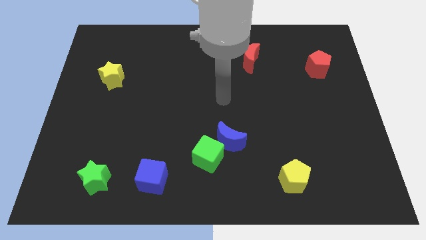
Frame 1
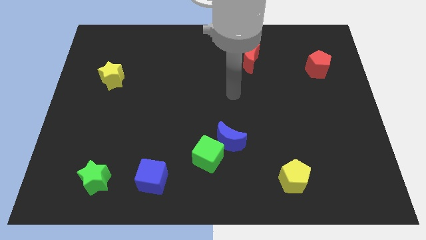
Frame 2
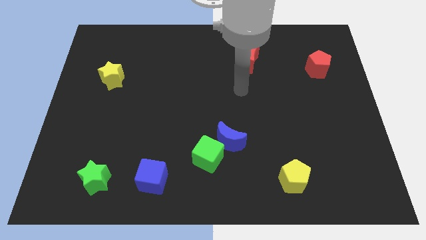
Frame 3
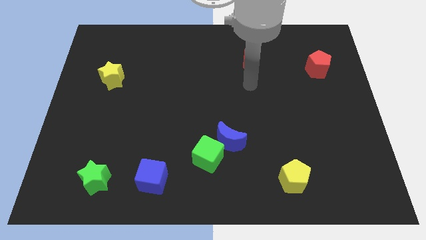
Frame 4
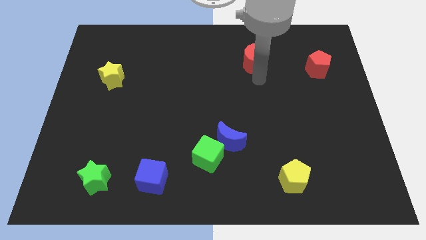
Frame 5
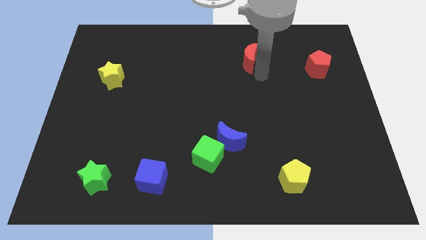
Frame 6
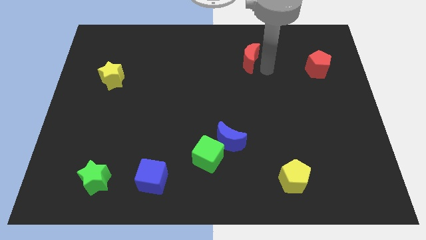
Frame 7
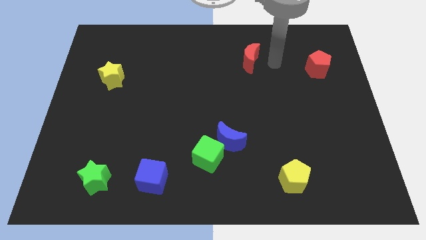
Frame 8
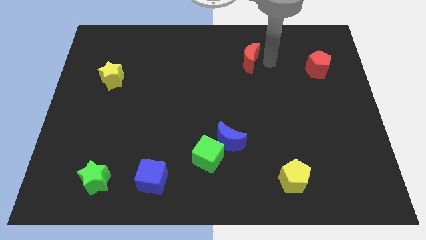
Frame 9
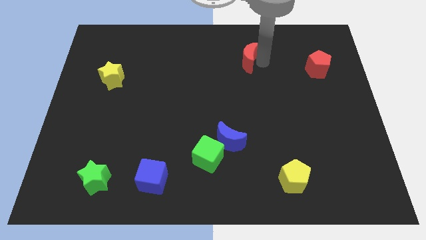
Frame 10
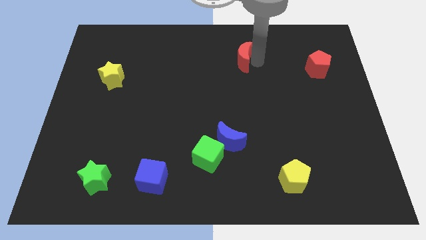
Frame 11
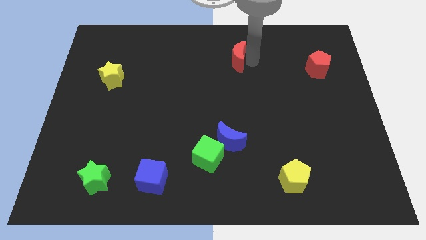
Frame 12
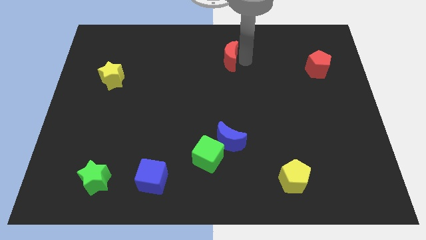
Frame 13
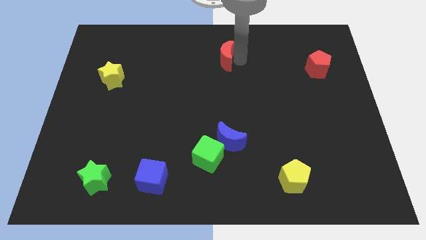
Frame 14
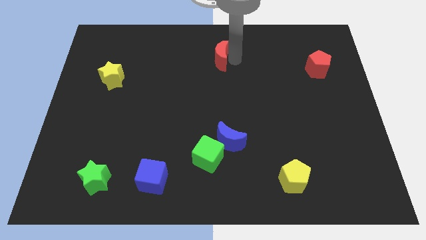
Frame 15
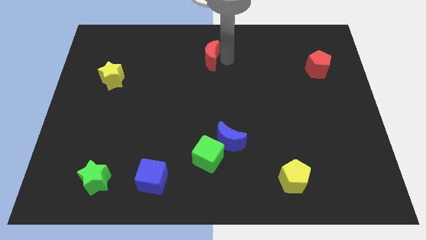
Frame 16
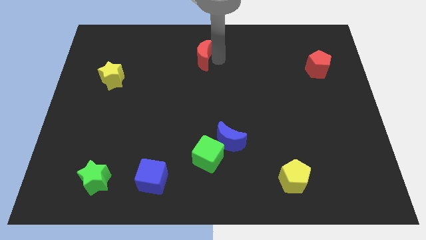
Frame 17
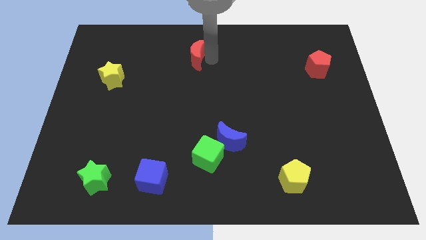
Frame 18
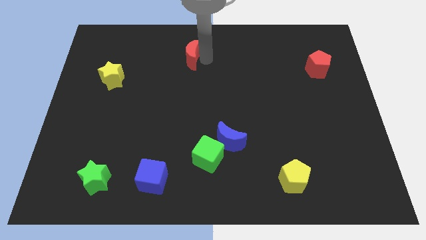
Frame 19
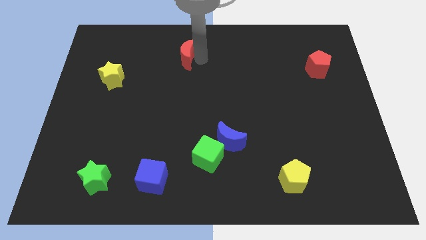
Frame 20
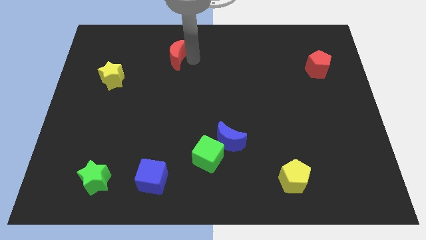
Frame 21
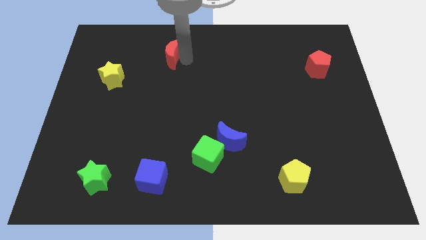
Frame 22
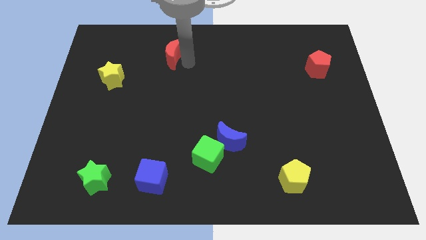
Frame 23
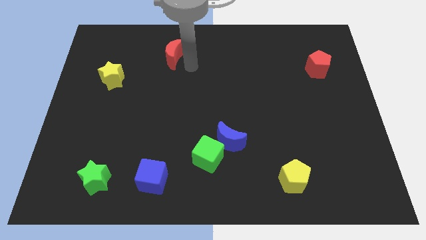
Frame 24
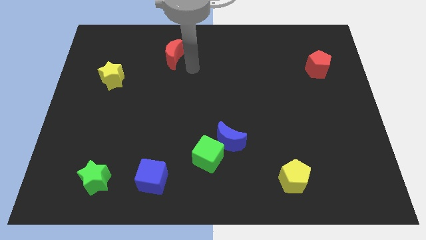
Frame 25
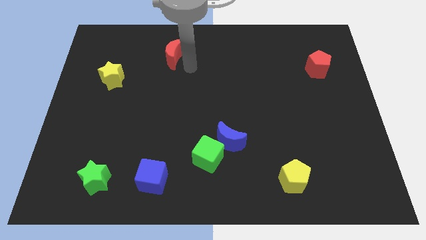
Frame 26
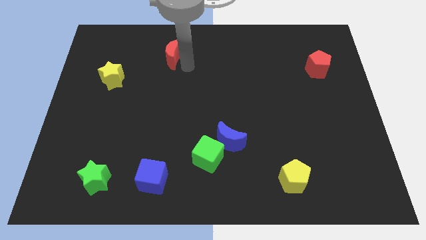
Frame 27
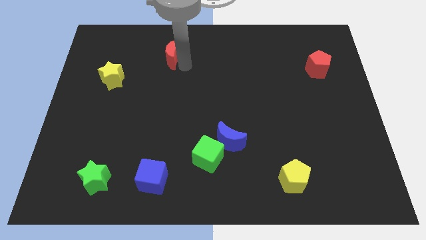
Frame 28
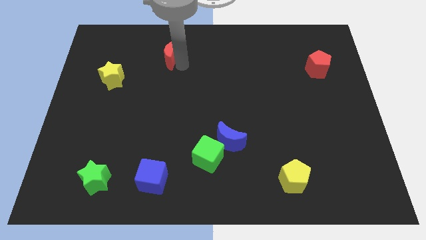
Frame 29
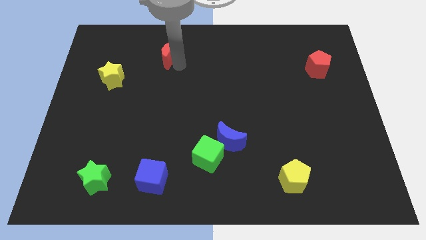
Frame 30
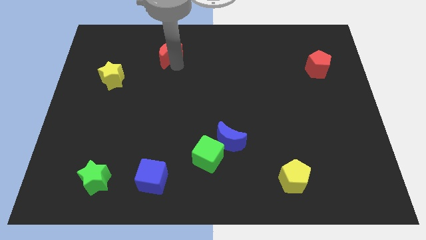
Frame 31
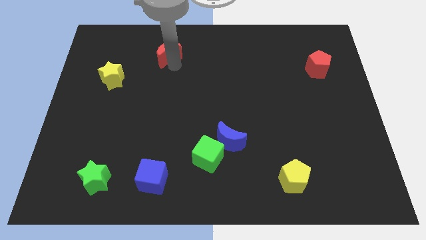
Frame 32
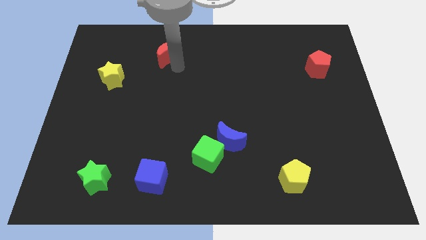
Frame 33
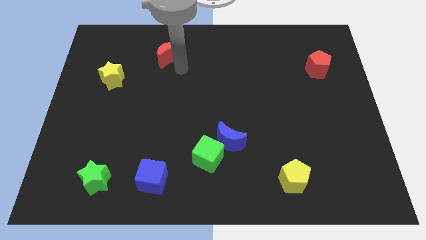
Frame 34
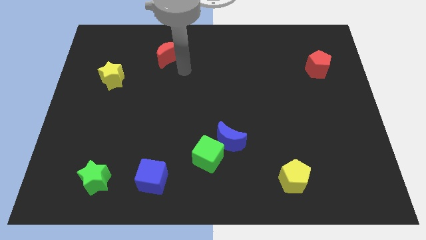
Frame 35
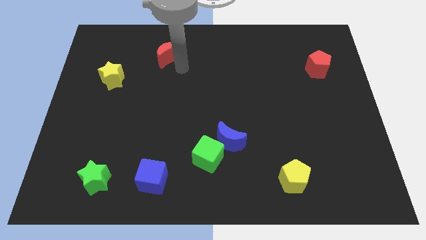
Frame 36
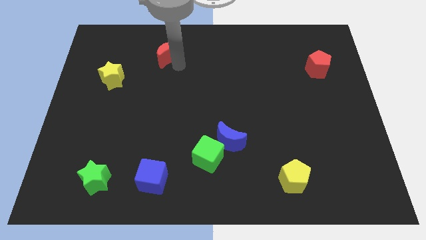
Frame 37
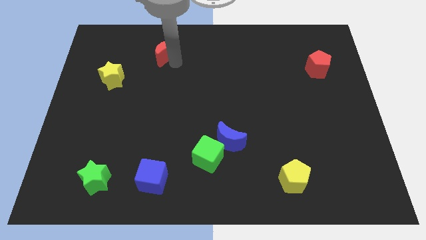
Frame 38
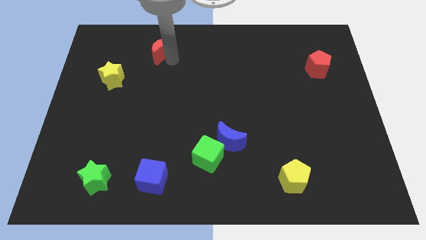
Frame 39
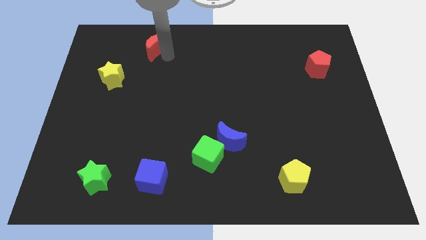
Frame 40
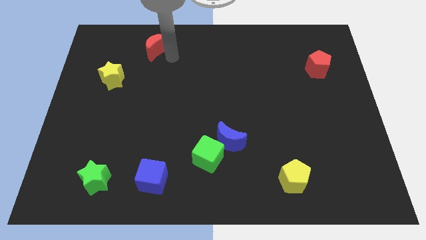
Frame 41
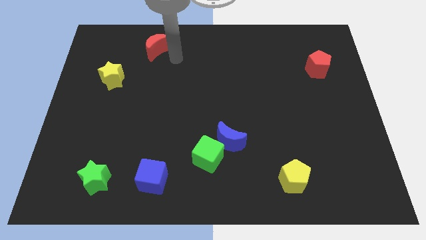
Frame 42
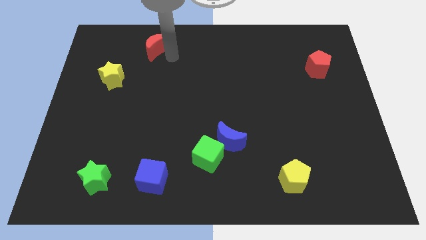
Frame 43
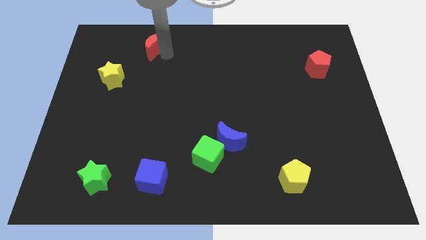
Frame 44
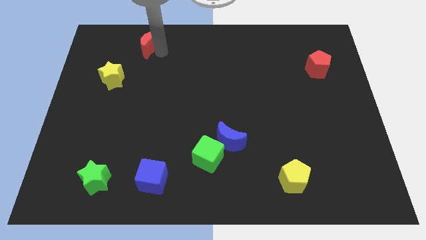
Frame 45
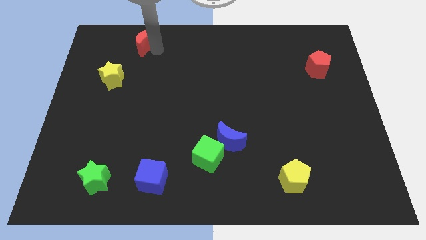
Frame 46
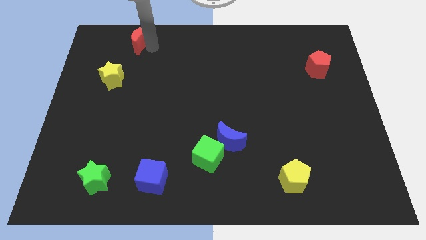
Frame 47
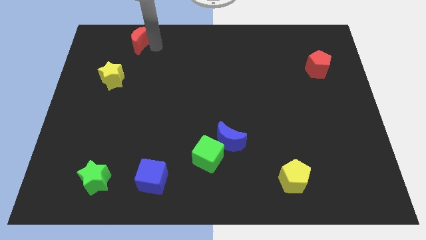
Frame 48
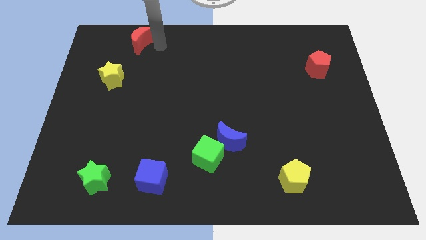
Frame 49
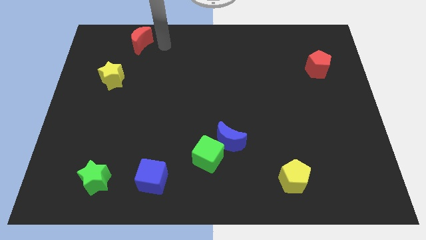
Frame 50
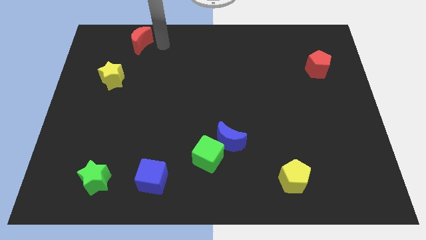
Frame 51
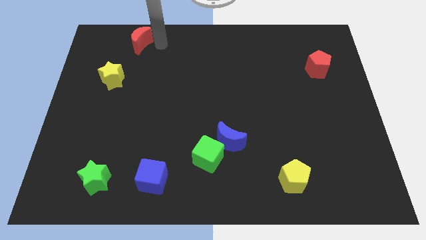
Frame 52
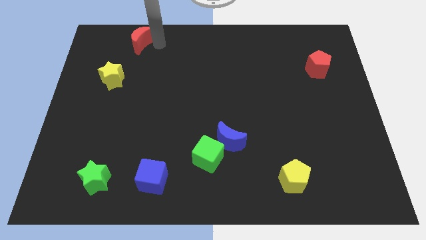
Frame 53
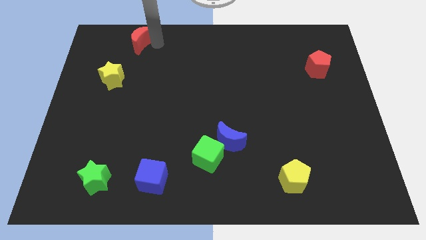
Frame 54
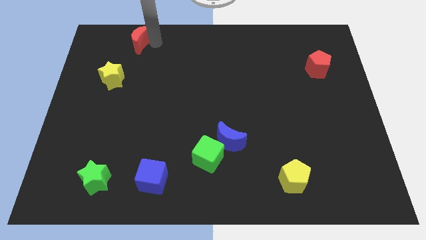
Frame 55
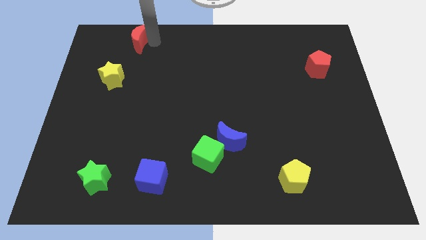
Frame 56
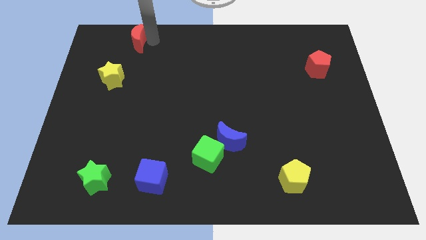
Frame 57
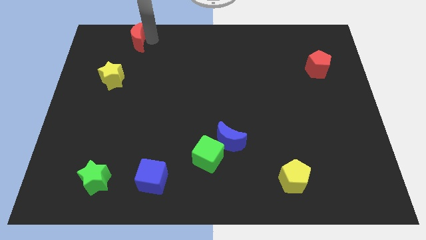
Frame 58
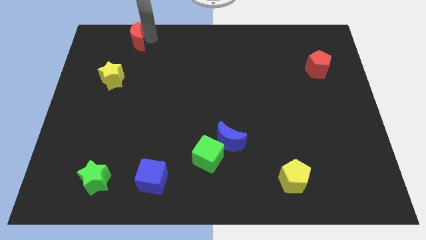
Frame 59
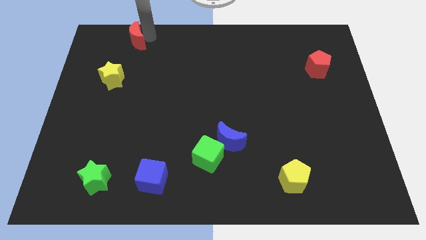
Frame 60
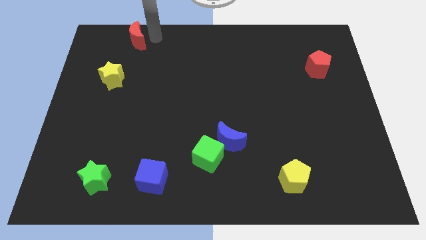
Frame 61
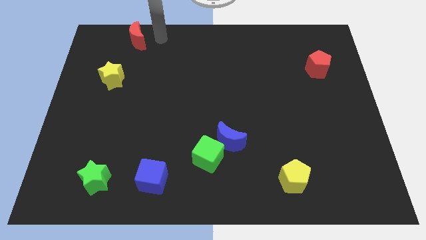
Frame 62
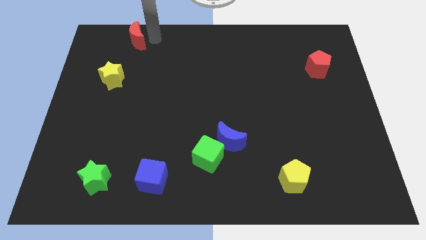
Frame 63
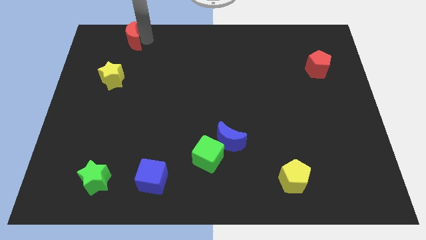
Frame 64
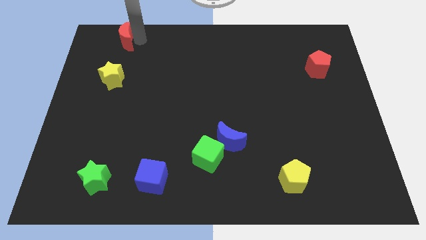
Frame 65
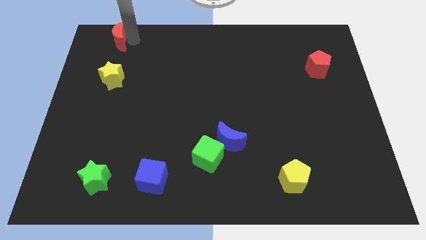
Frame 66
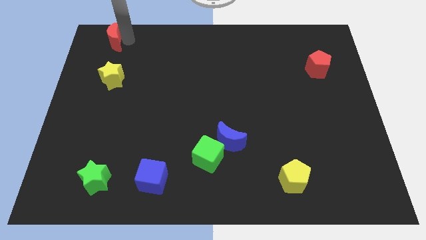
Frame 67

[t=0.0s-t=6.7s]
move the red moon to the top left

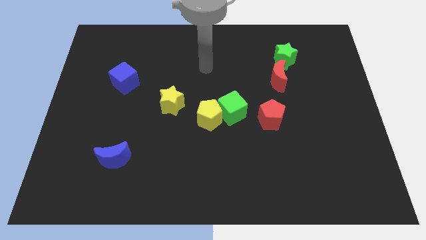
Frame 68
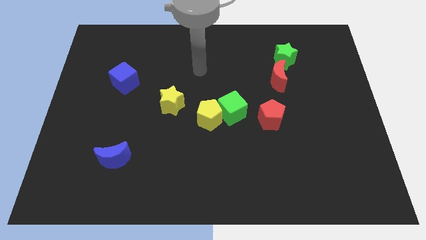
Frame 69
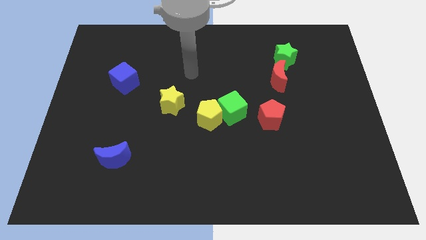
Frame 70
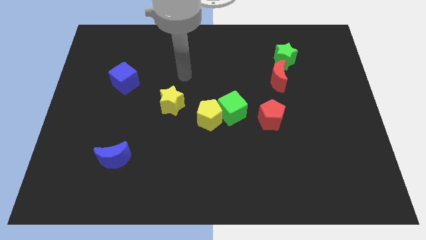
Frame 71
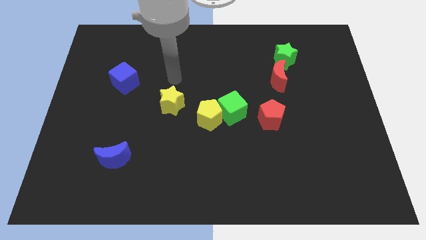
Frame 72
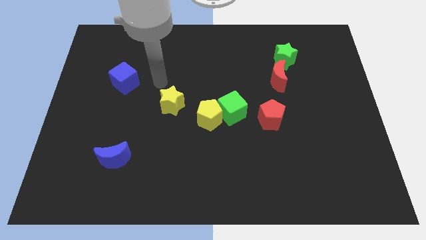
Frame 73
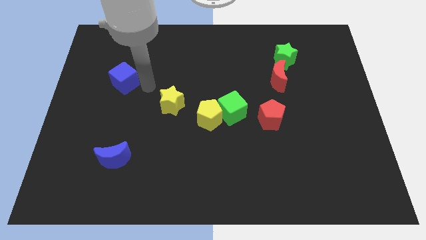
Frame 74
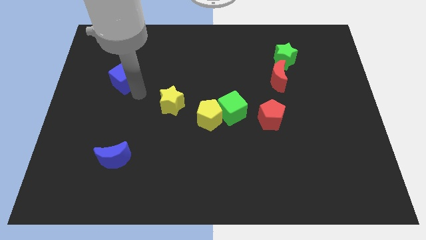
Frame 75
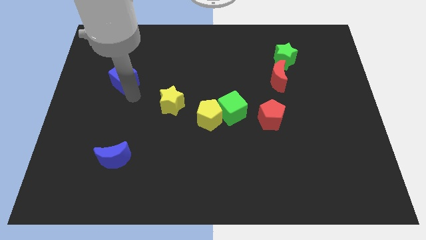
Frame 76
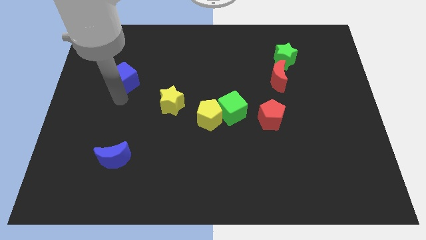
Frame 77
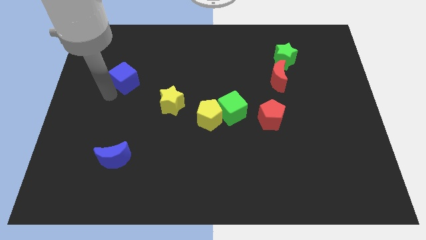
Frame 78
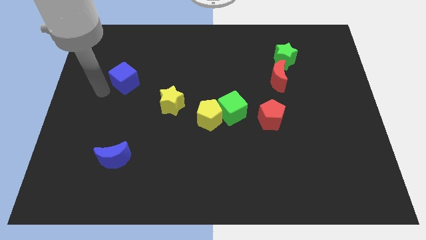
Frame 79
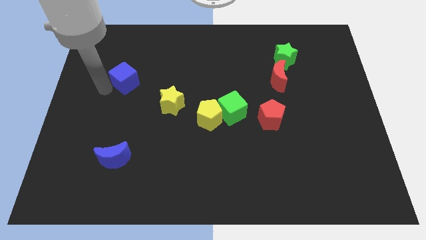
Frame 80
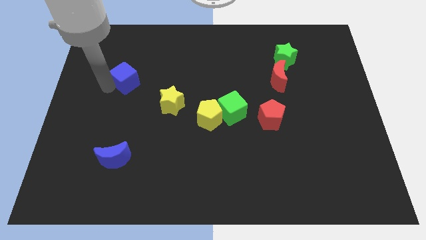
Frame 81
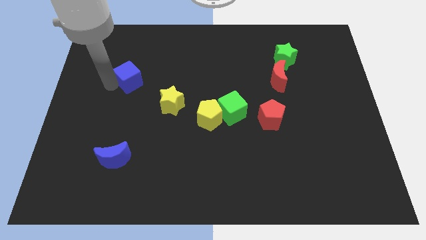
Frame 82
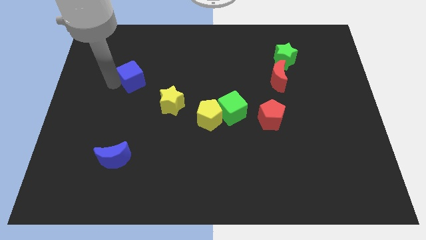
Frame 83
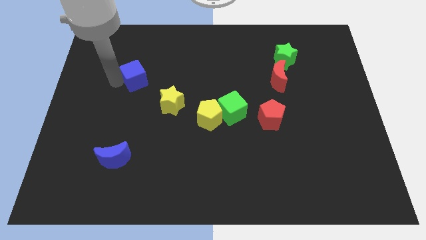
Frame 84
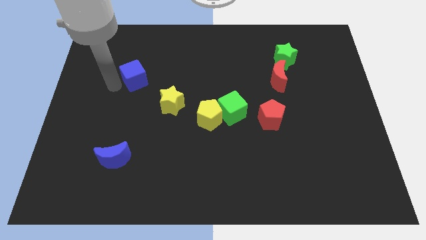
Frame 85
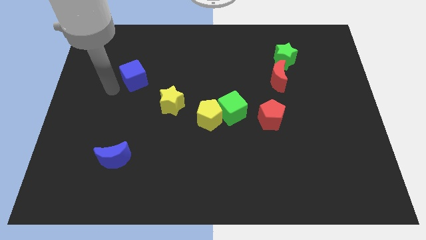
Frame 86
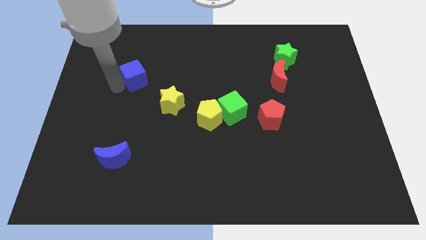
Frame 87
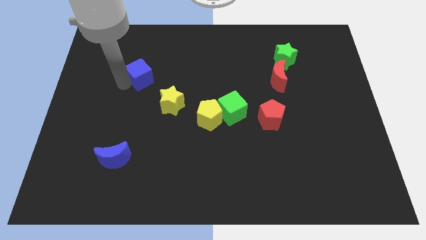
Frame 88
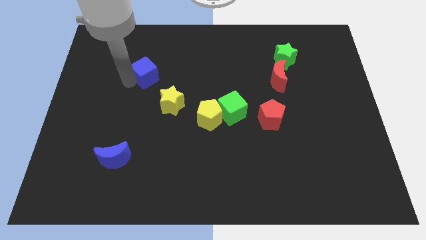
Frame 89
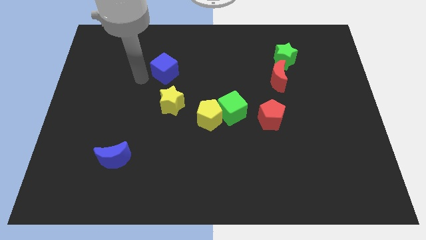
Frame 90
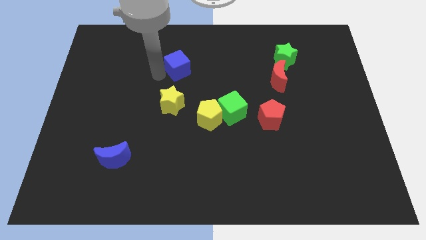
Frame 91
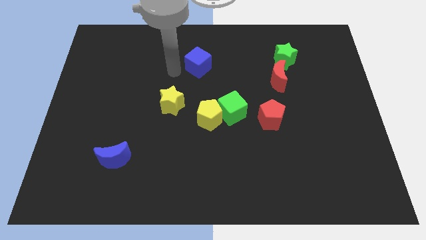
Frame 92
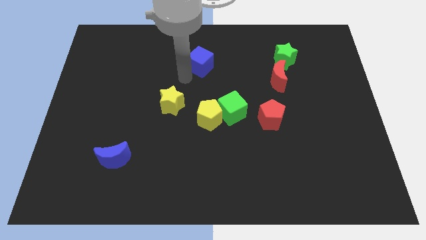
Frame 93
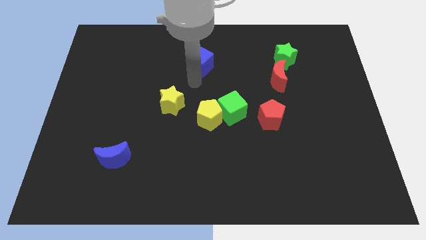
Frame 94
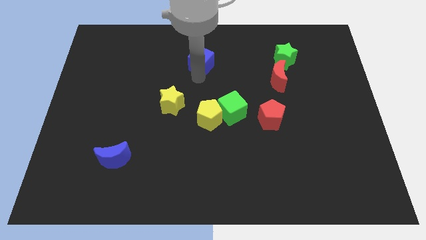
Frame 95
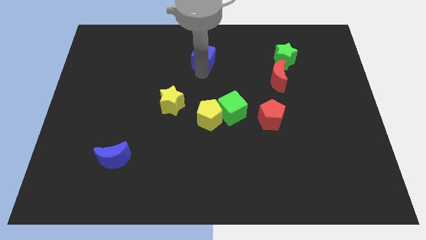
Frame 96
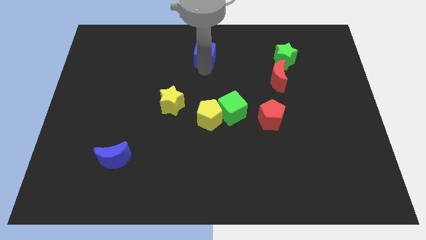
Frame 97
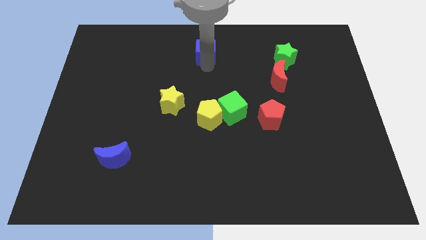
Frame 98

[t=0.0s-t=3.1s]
move the blue cube to the top
